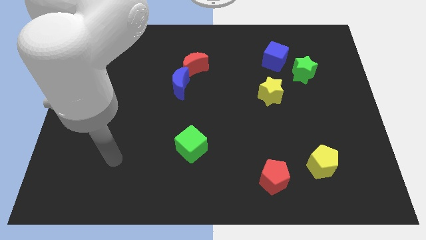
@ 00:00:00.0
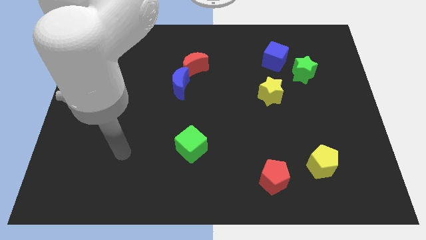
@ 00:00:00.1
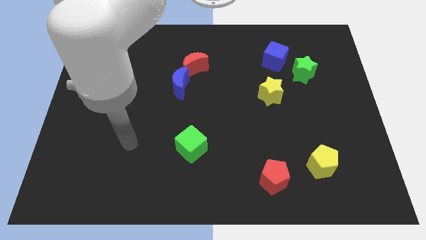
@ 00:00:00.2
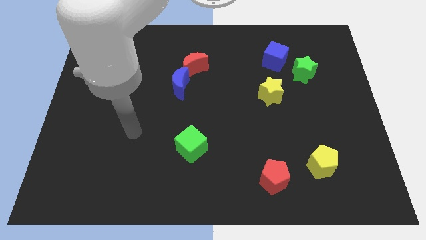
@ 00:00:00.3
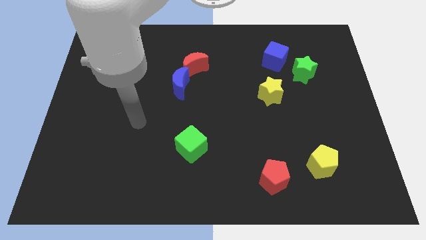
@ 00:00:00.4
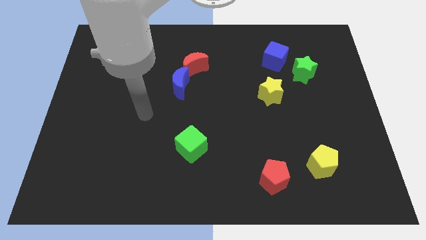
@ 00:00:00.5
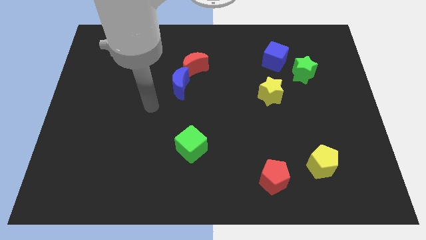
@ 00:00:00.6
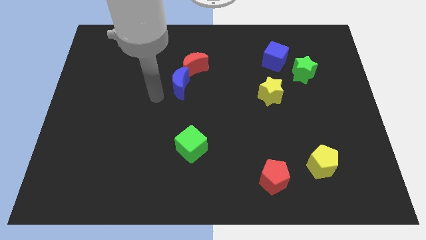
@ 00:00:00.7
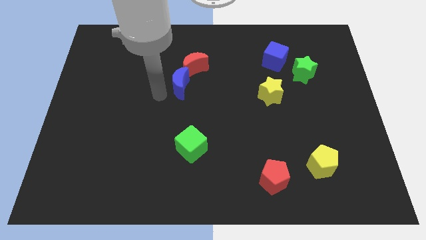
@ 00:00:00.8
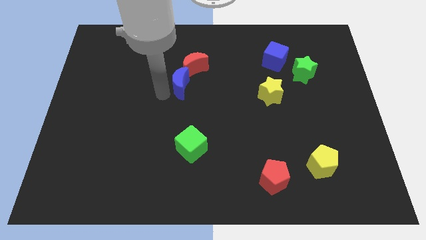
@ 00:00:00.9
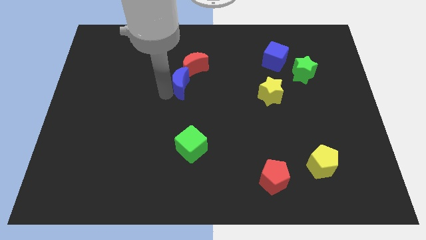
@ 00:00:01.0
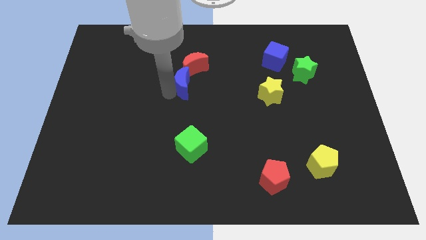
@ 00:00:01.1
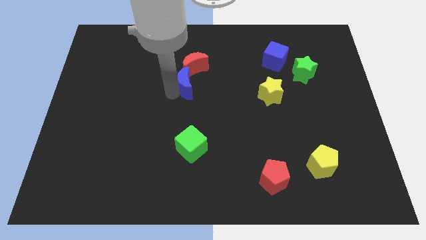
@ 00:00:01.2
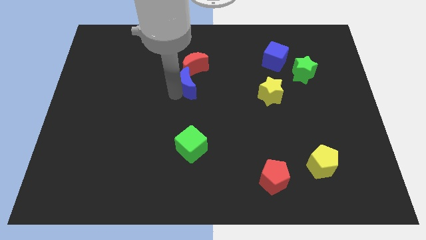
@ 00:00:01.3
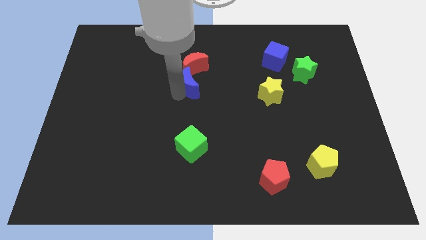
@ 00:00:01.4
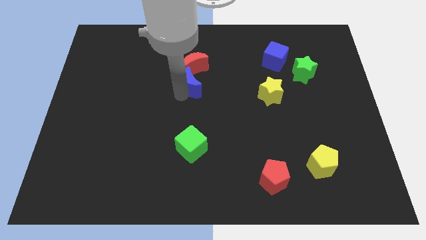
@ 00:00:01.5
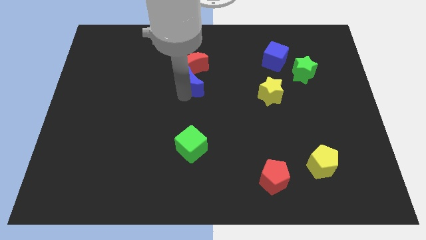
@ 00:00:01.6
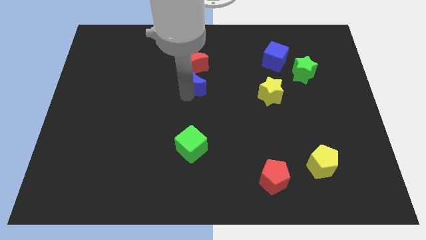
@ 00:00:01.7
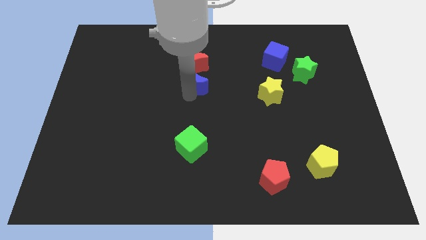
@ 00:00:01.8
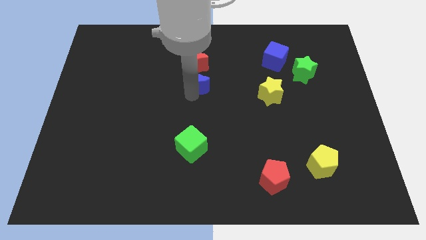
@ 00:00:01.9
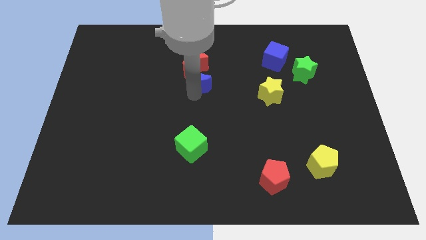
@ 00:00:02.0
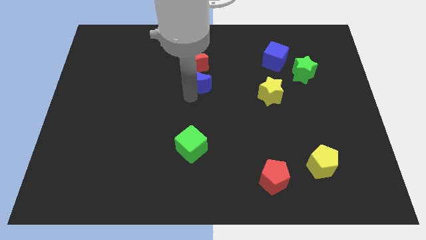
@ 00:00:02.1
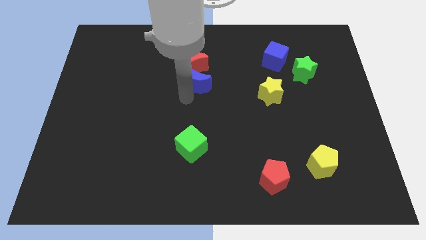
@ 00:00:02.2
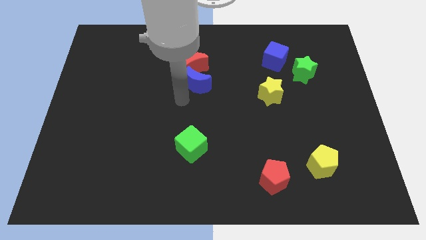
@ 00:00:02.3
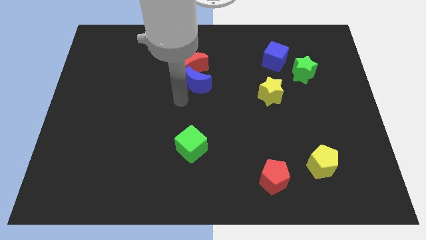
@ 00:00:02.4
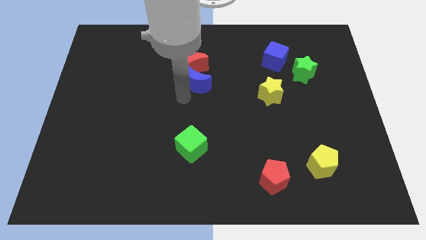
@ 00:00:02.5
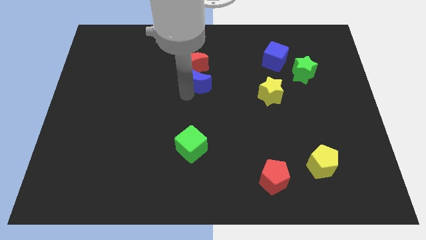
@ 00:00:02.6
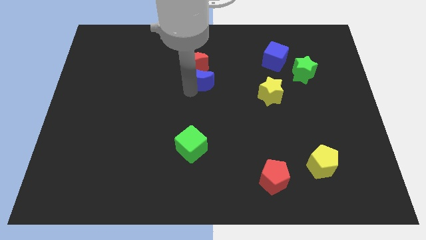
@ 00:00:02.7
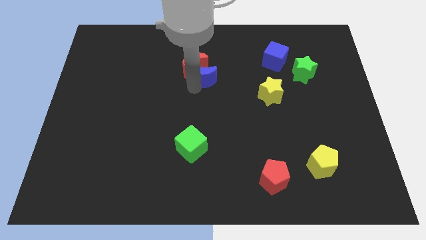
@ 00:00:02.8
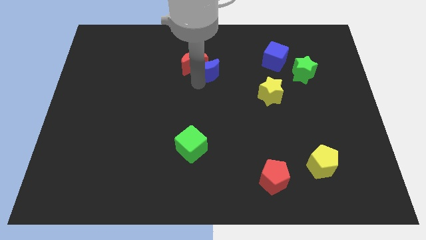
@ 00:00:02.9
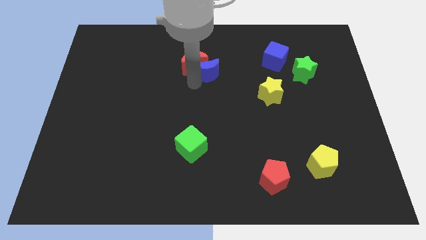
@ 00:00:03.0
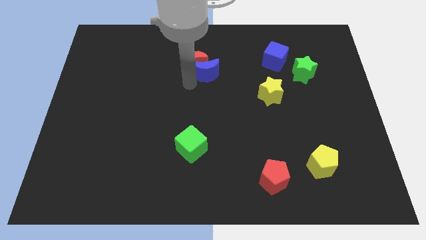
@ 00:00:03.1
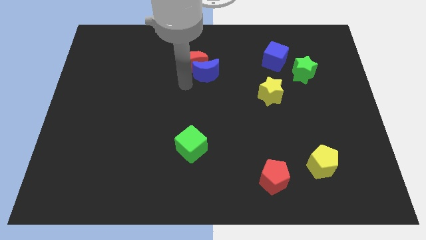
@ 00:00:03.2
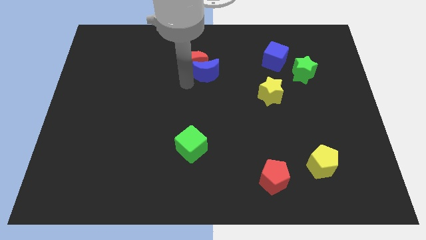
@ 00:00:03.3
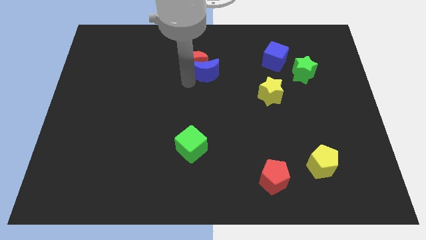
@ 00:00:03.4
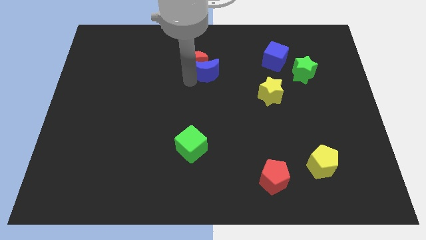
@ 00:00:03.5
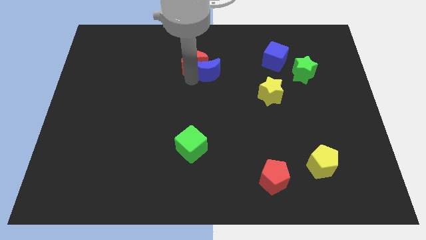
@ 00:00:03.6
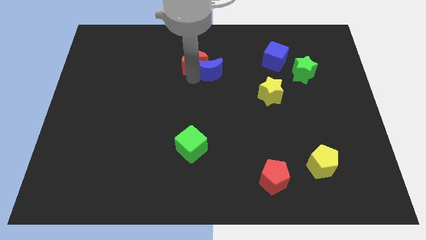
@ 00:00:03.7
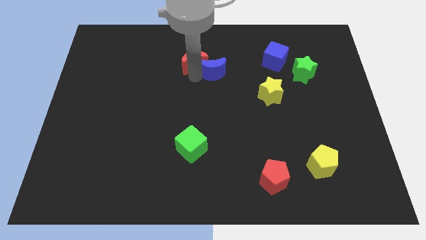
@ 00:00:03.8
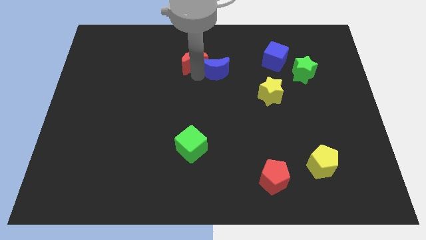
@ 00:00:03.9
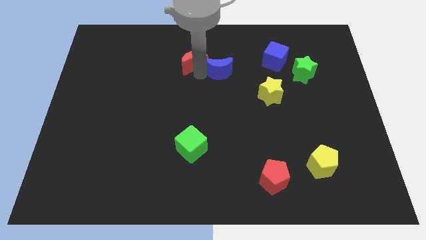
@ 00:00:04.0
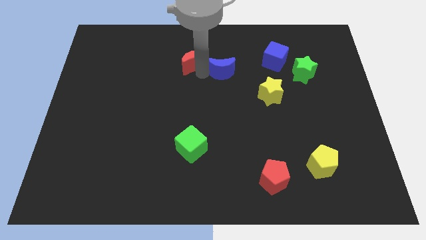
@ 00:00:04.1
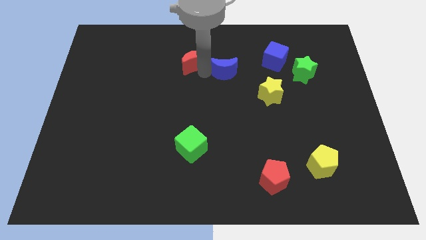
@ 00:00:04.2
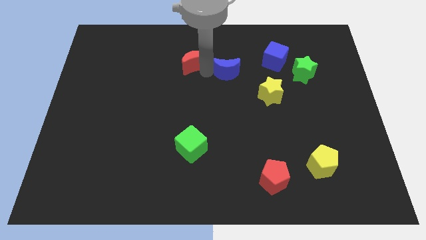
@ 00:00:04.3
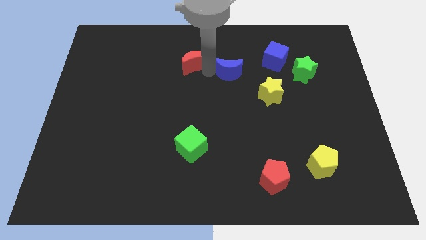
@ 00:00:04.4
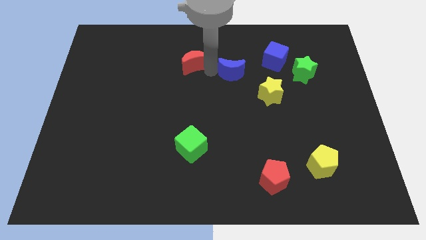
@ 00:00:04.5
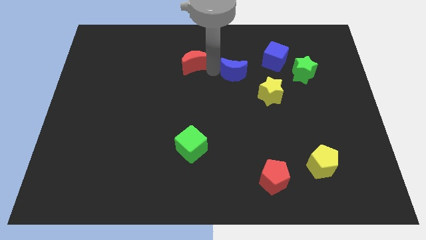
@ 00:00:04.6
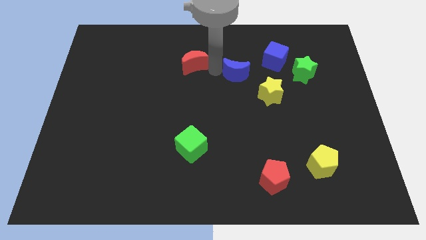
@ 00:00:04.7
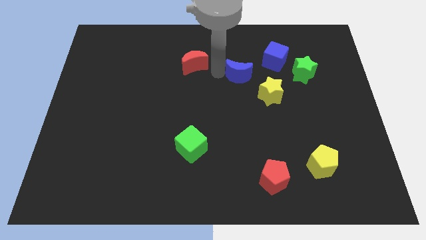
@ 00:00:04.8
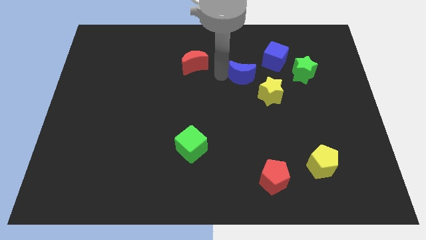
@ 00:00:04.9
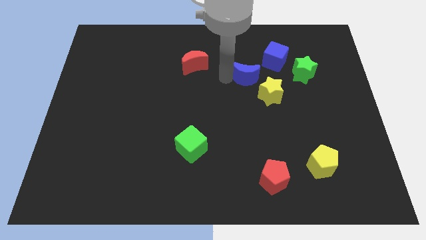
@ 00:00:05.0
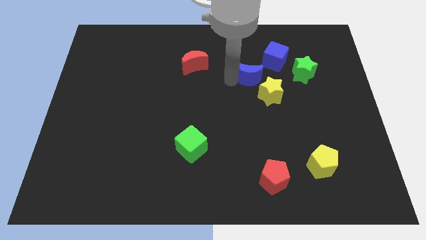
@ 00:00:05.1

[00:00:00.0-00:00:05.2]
move the blue moon above the yellow star

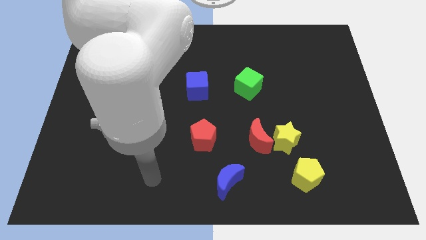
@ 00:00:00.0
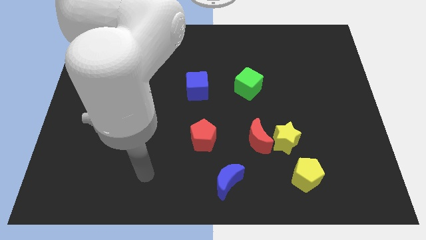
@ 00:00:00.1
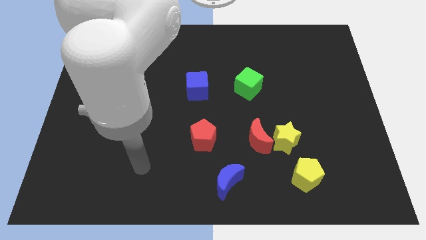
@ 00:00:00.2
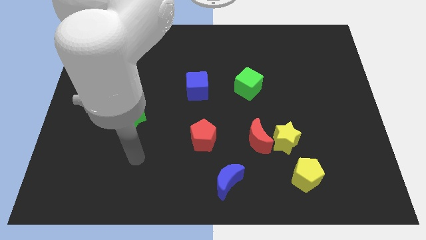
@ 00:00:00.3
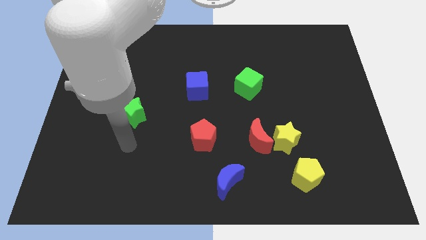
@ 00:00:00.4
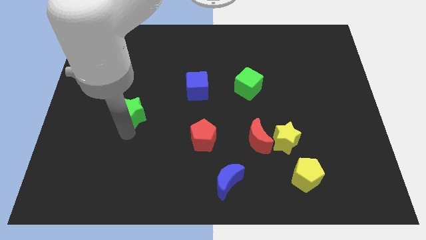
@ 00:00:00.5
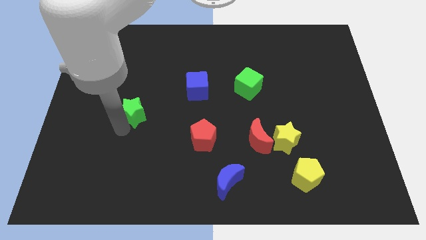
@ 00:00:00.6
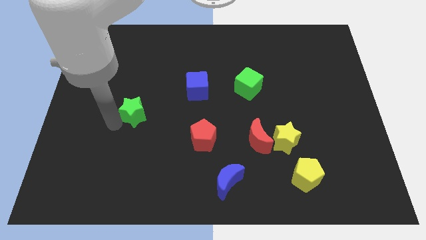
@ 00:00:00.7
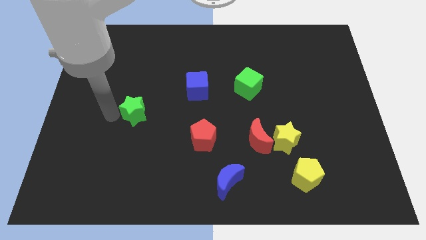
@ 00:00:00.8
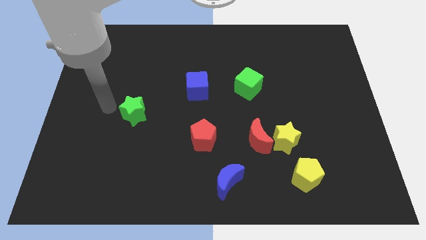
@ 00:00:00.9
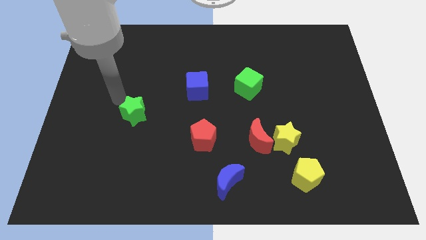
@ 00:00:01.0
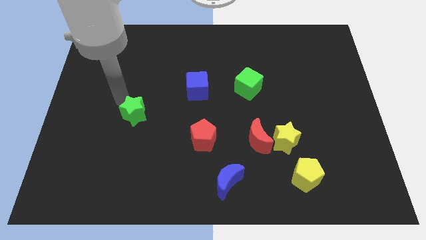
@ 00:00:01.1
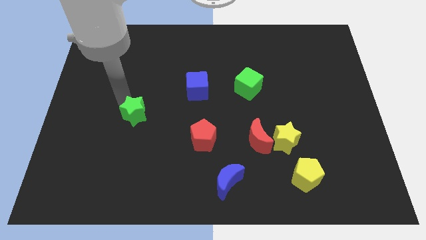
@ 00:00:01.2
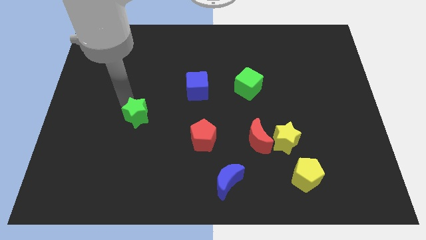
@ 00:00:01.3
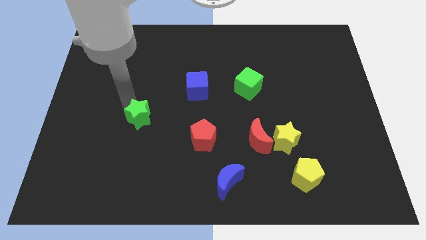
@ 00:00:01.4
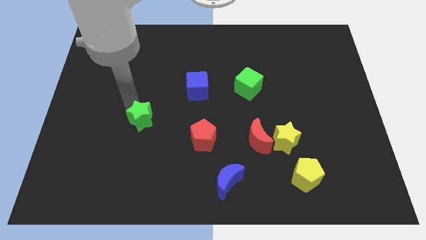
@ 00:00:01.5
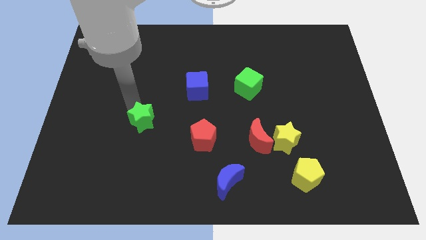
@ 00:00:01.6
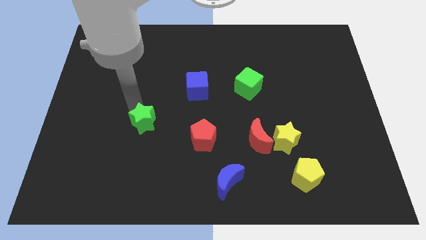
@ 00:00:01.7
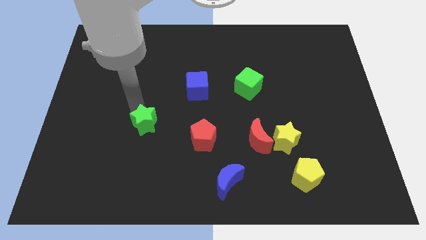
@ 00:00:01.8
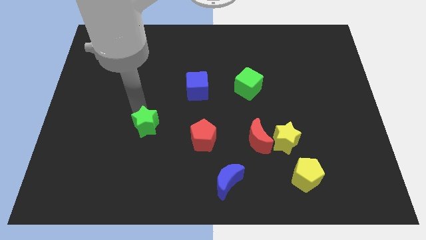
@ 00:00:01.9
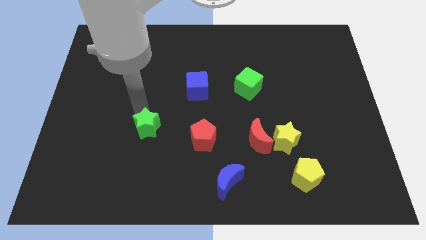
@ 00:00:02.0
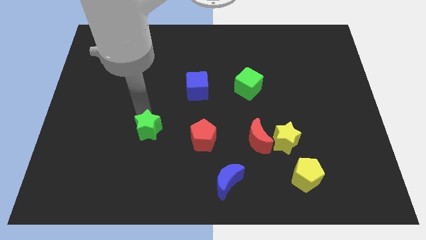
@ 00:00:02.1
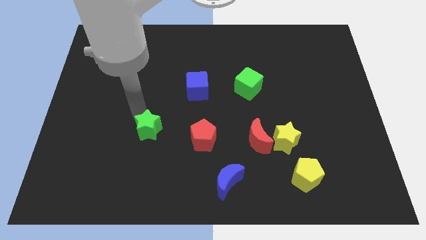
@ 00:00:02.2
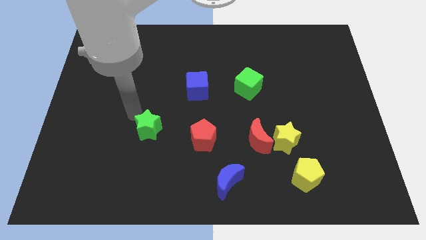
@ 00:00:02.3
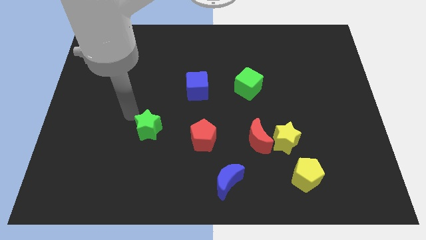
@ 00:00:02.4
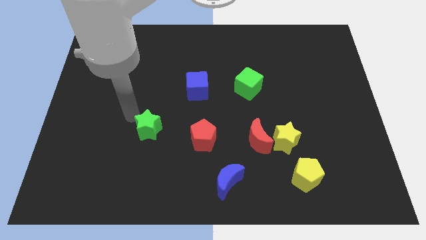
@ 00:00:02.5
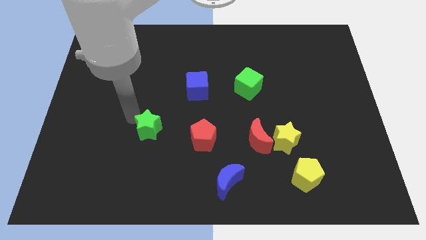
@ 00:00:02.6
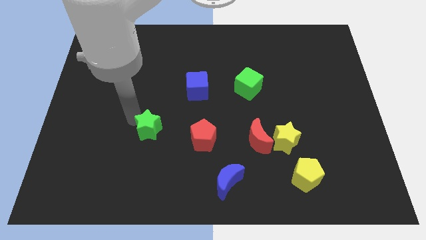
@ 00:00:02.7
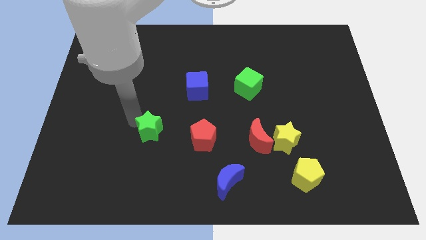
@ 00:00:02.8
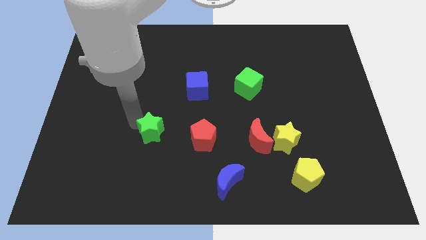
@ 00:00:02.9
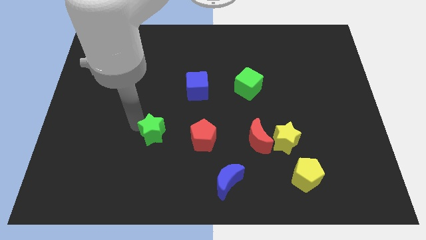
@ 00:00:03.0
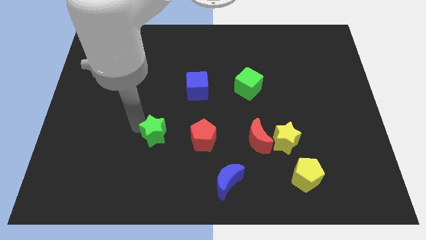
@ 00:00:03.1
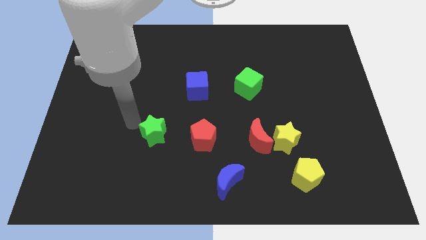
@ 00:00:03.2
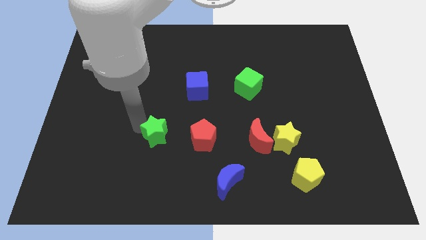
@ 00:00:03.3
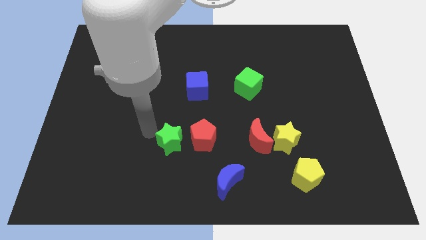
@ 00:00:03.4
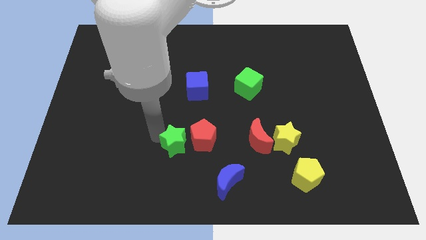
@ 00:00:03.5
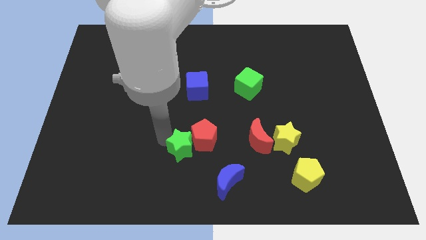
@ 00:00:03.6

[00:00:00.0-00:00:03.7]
push the green star to the top left of the blue moon
